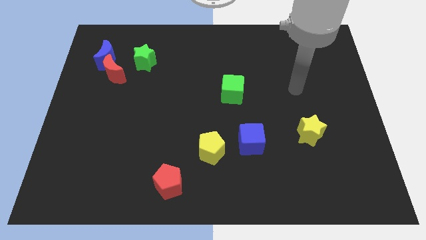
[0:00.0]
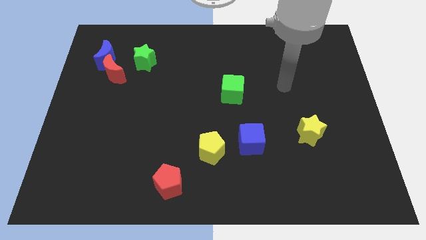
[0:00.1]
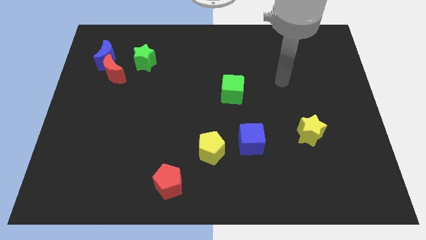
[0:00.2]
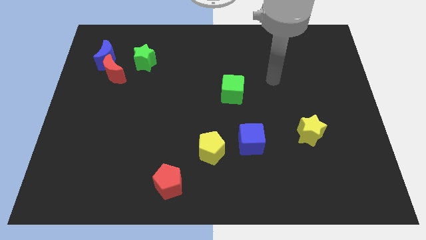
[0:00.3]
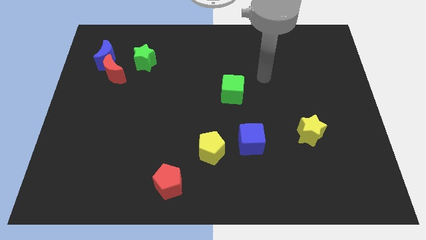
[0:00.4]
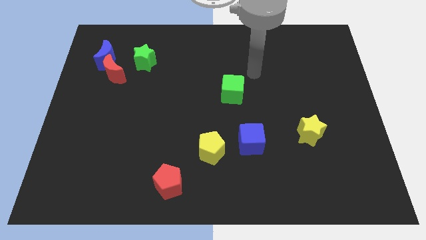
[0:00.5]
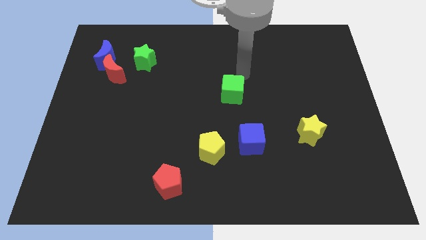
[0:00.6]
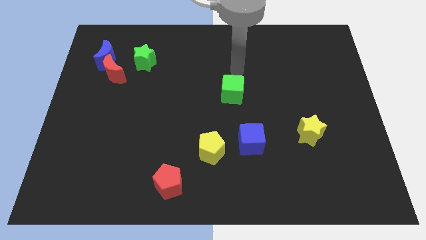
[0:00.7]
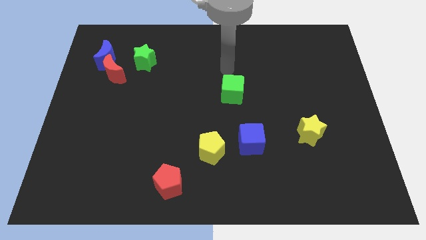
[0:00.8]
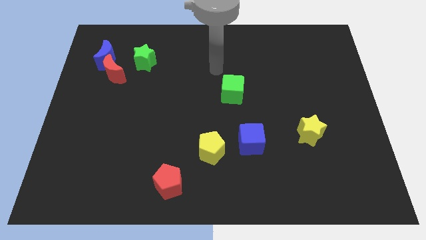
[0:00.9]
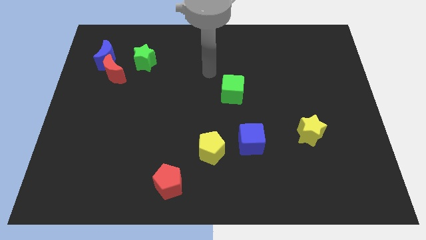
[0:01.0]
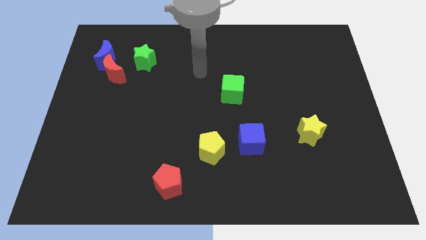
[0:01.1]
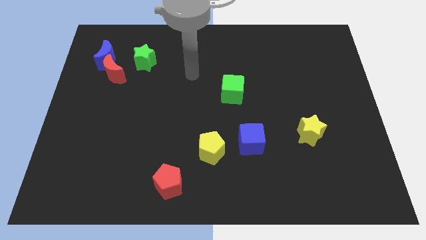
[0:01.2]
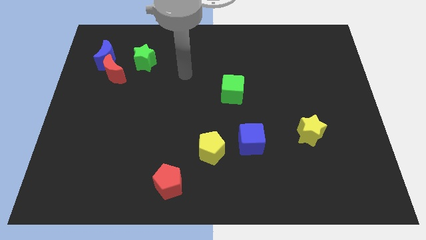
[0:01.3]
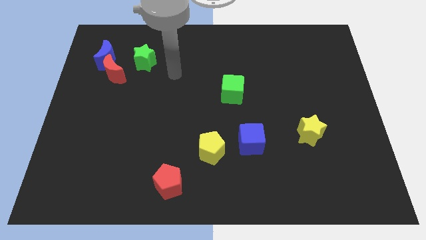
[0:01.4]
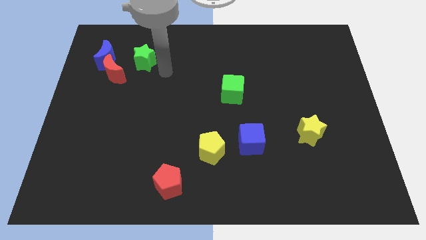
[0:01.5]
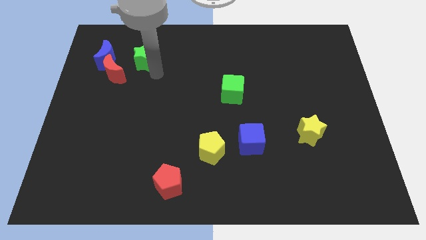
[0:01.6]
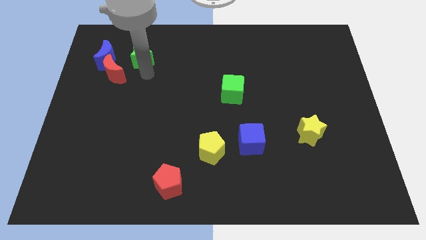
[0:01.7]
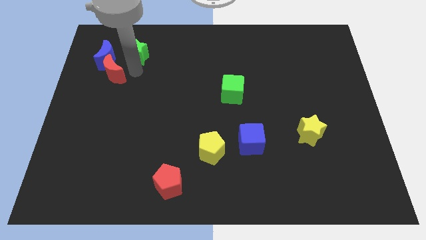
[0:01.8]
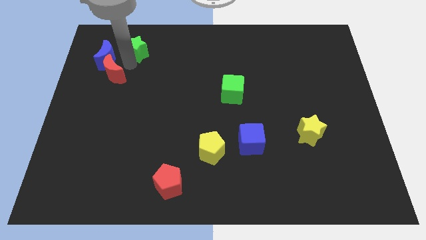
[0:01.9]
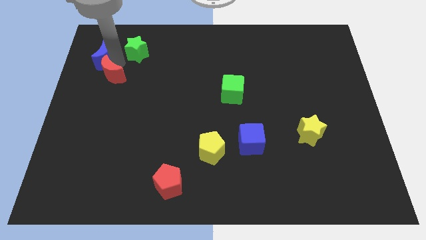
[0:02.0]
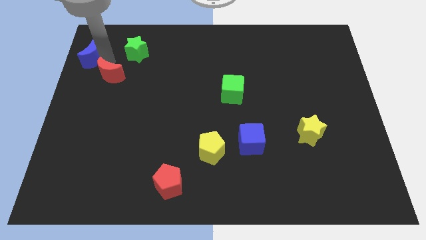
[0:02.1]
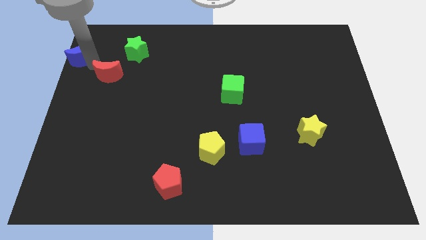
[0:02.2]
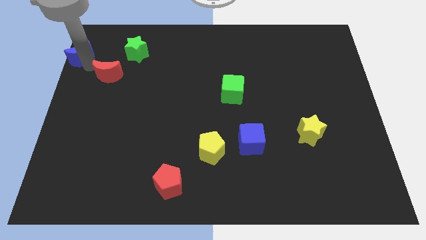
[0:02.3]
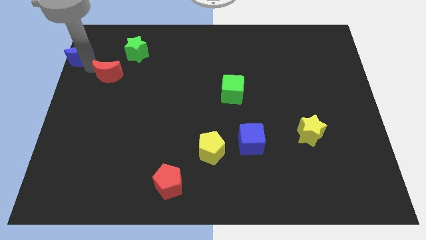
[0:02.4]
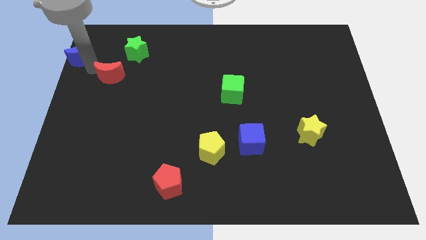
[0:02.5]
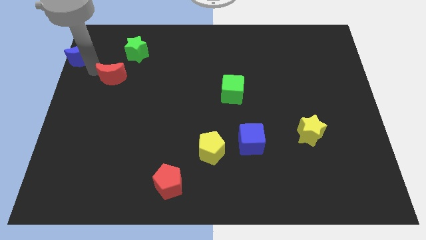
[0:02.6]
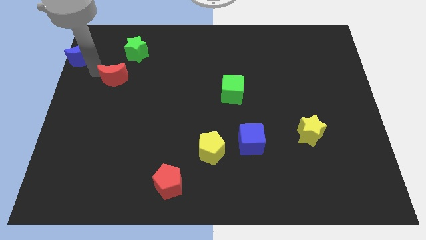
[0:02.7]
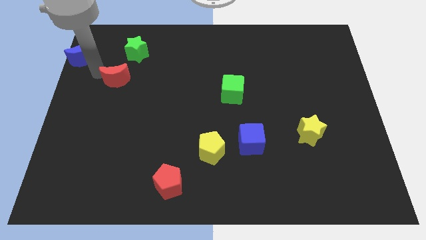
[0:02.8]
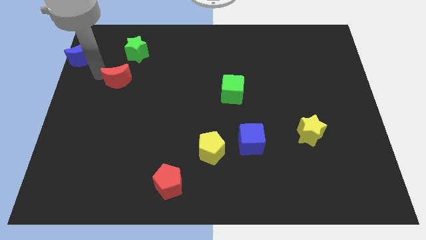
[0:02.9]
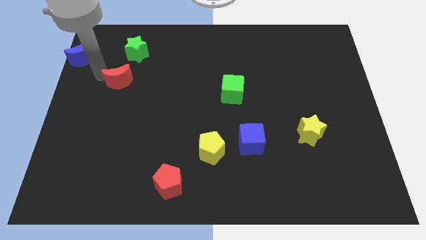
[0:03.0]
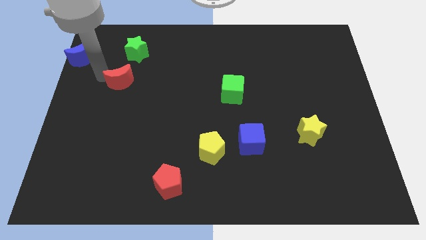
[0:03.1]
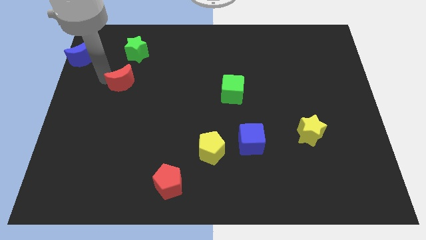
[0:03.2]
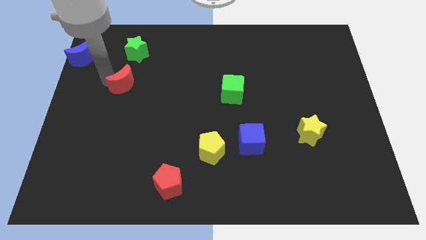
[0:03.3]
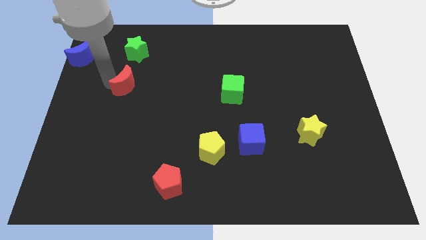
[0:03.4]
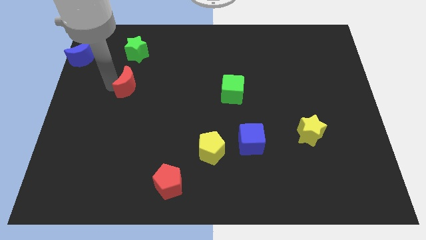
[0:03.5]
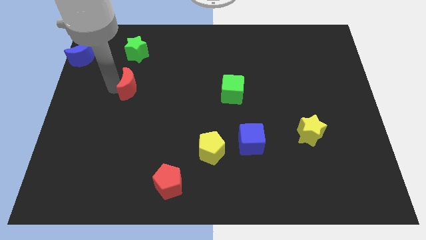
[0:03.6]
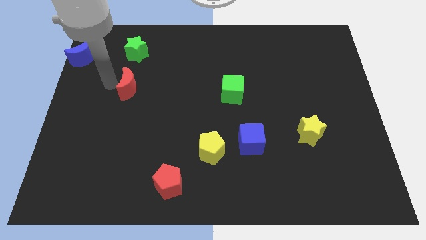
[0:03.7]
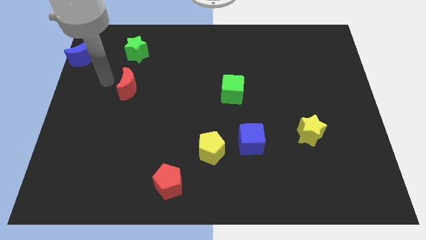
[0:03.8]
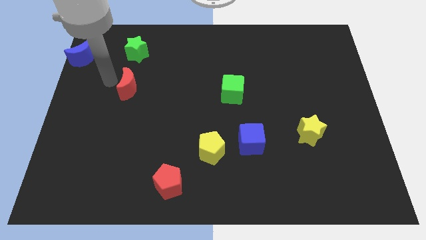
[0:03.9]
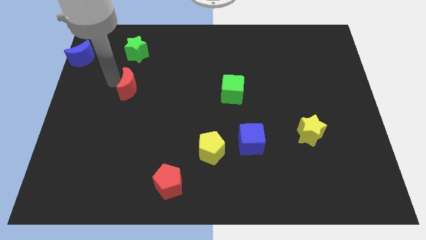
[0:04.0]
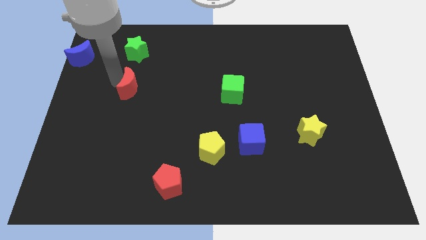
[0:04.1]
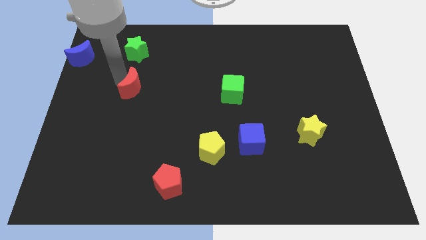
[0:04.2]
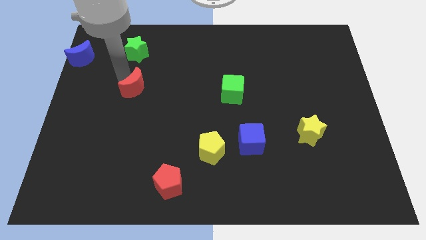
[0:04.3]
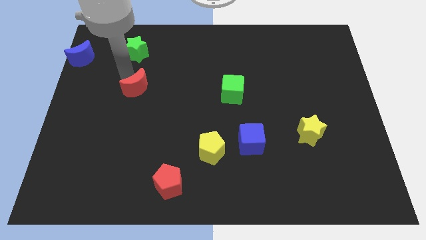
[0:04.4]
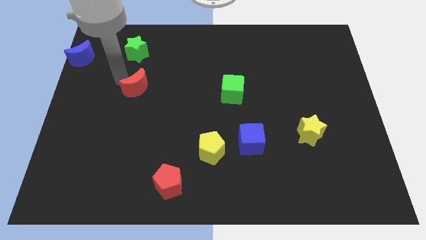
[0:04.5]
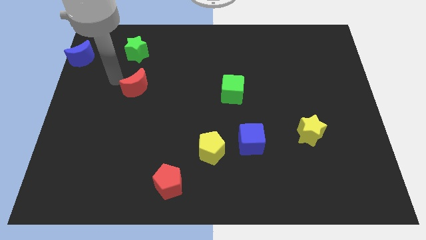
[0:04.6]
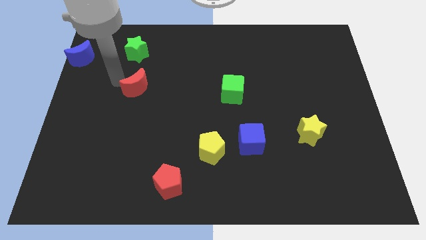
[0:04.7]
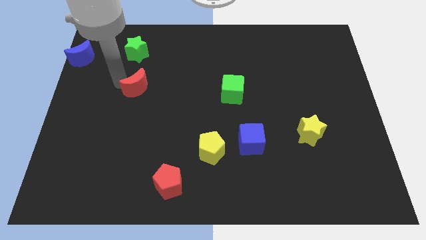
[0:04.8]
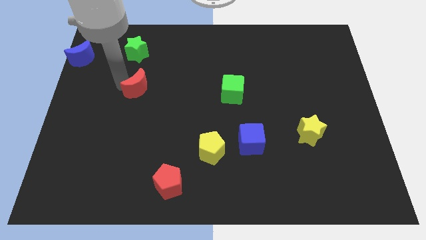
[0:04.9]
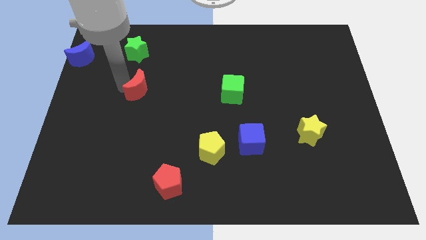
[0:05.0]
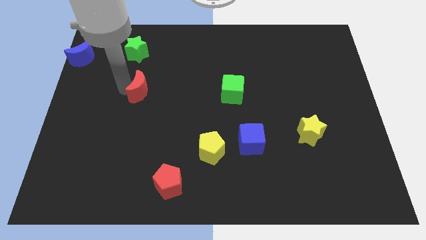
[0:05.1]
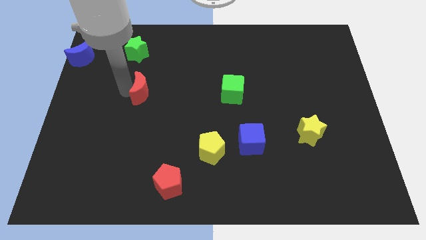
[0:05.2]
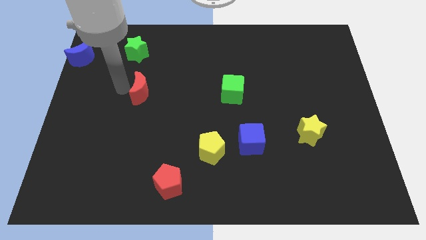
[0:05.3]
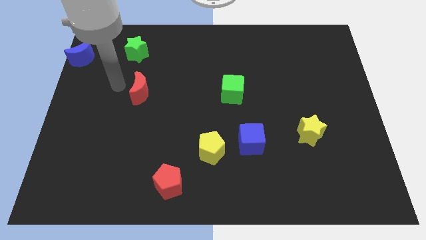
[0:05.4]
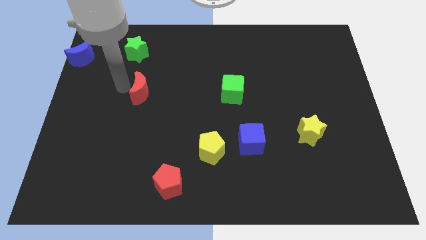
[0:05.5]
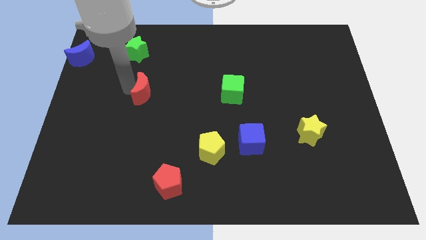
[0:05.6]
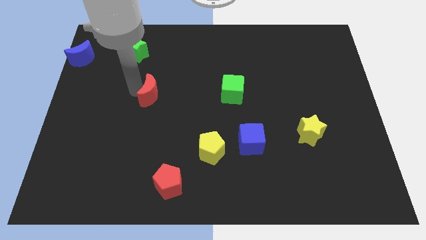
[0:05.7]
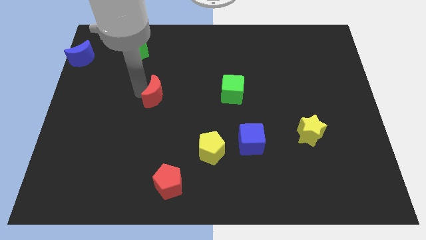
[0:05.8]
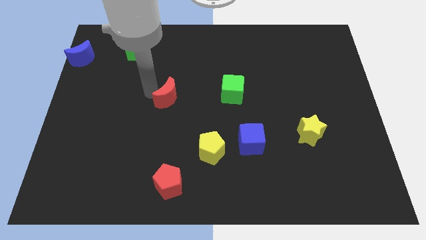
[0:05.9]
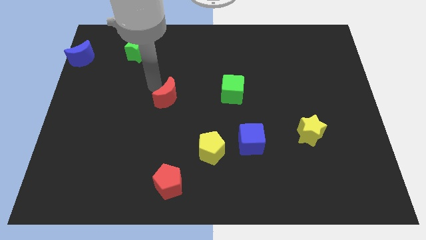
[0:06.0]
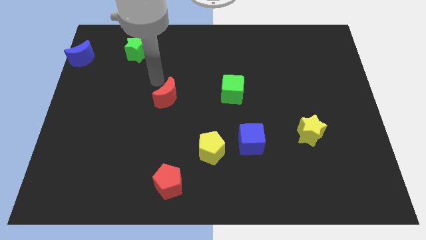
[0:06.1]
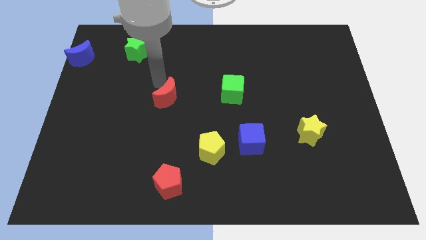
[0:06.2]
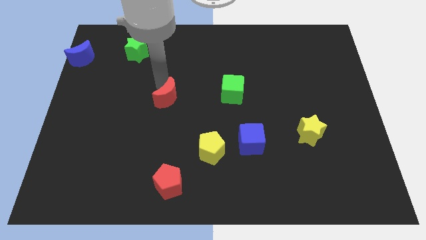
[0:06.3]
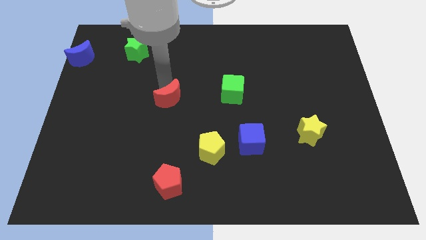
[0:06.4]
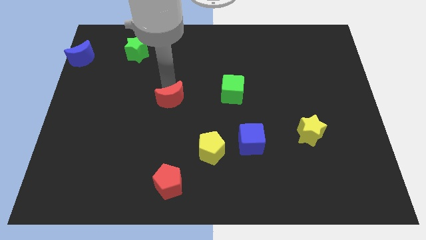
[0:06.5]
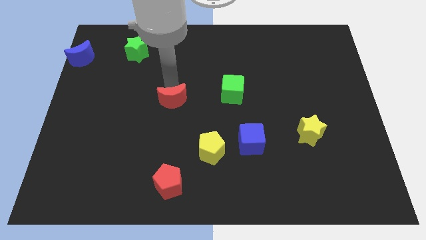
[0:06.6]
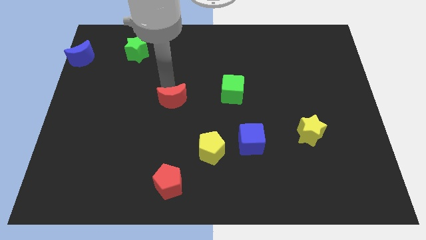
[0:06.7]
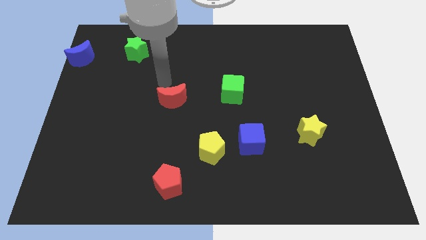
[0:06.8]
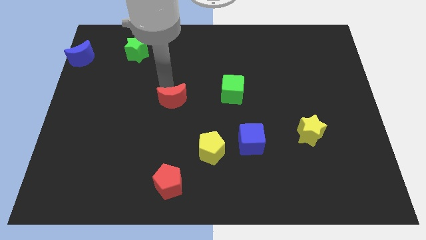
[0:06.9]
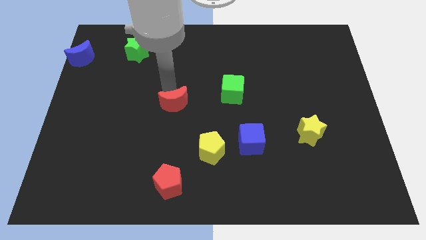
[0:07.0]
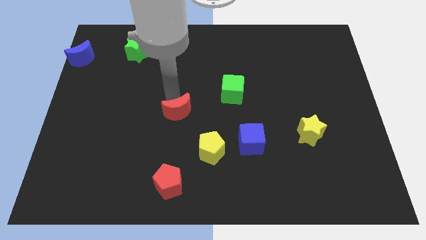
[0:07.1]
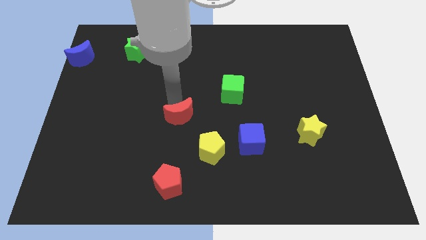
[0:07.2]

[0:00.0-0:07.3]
push the red moon diagonally up and to the left of the yellow pentagon
